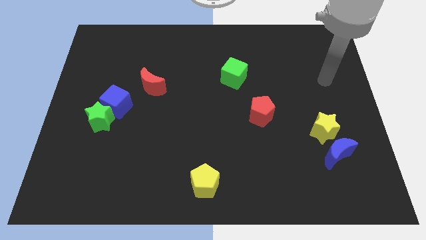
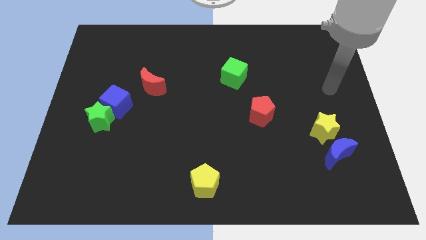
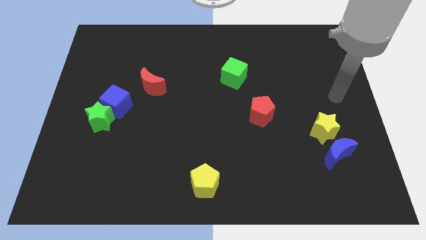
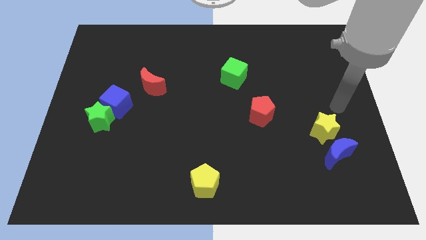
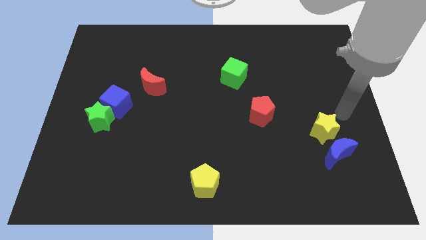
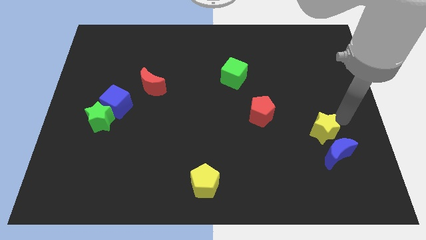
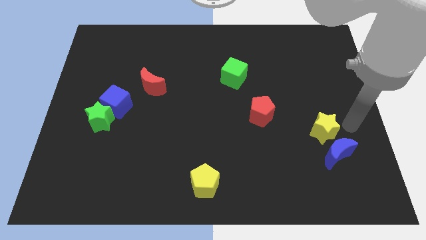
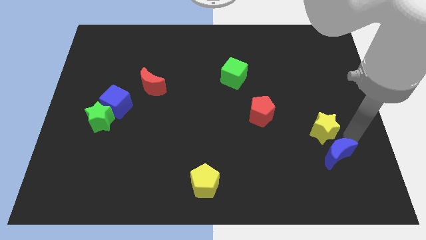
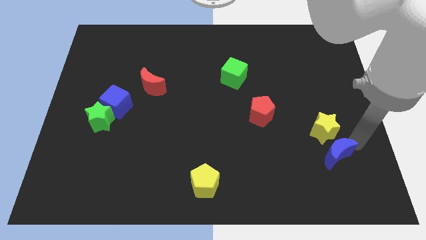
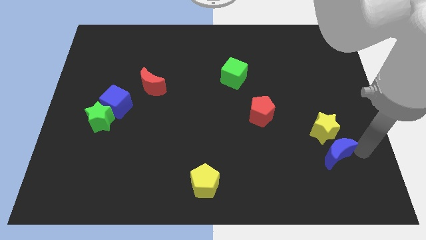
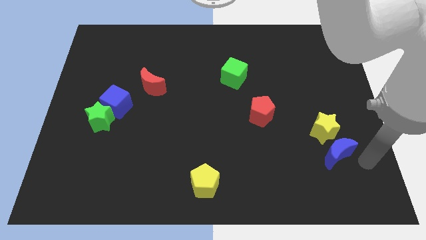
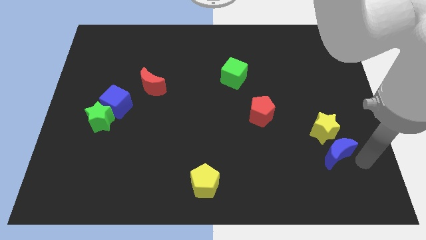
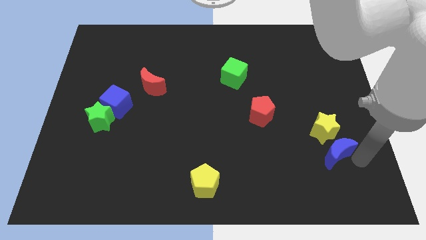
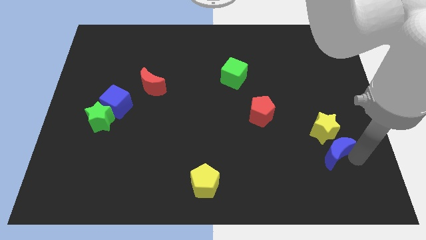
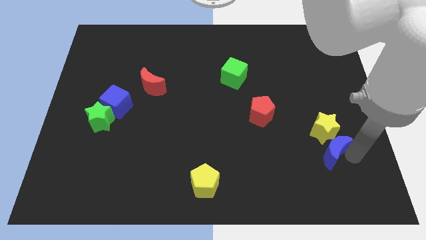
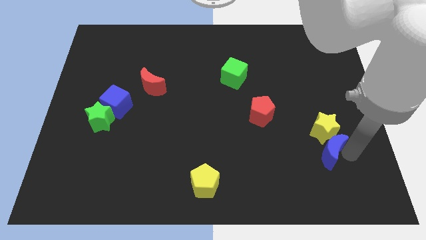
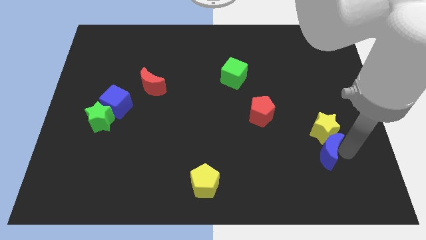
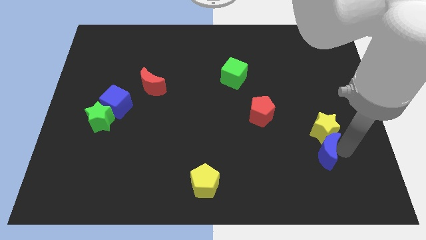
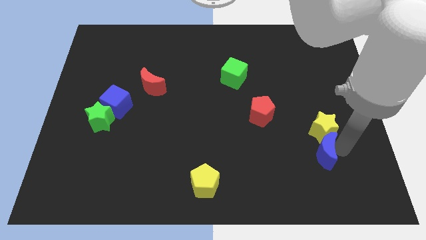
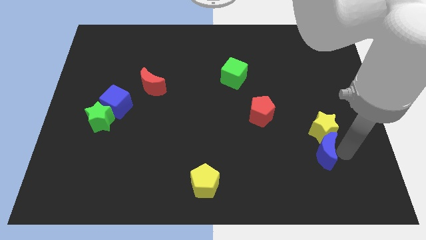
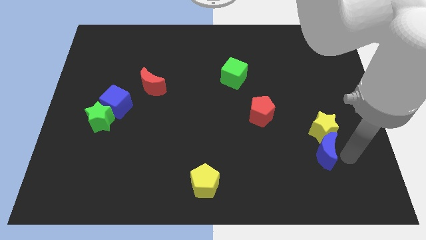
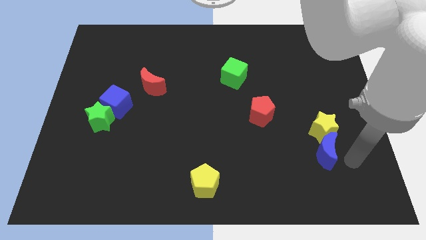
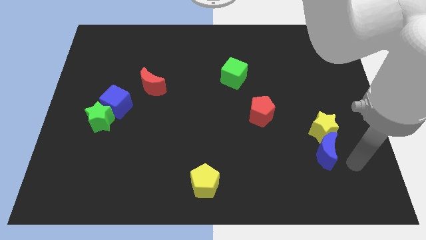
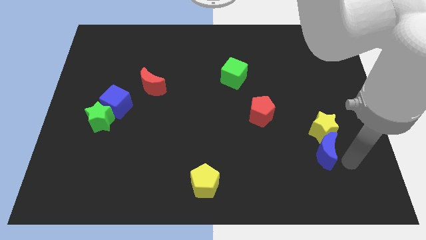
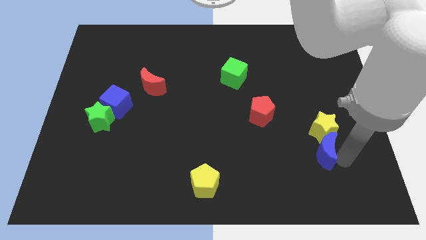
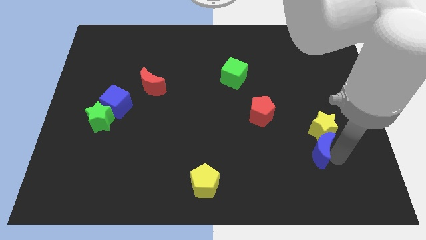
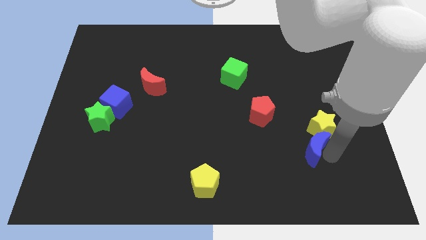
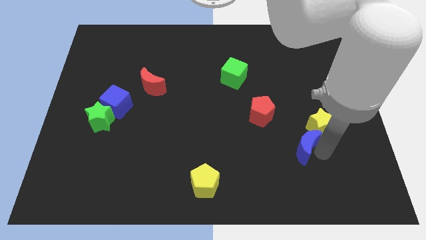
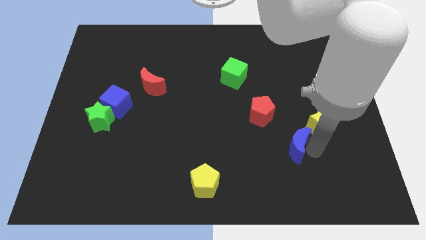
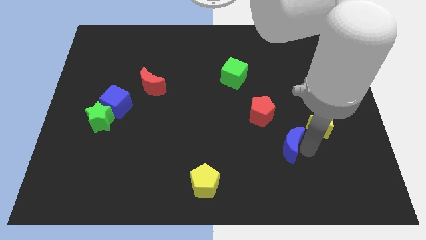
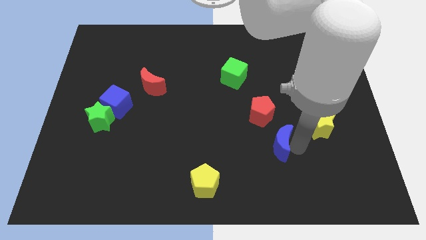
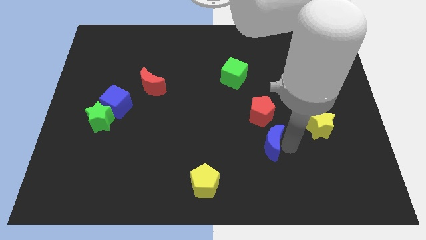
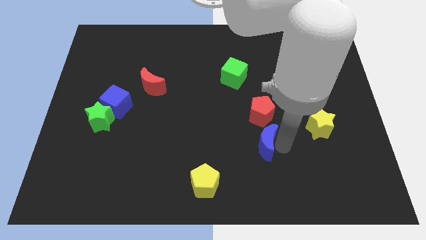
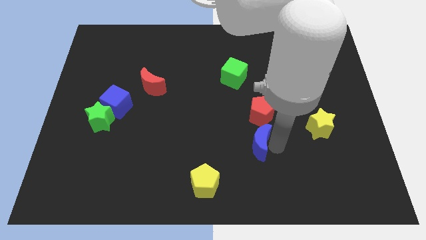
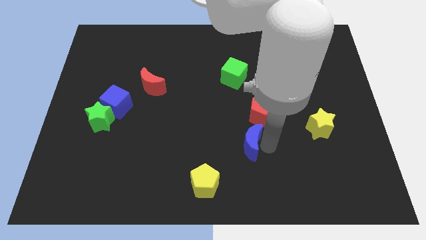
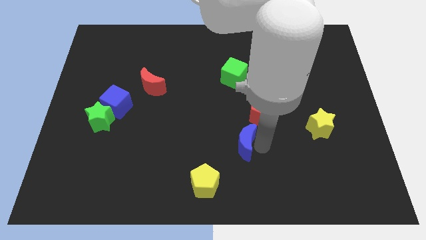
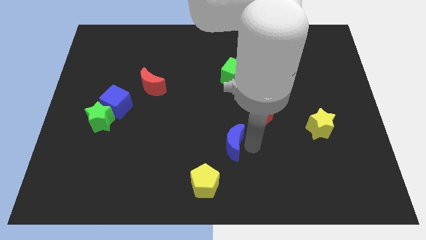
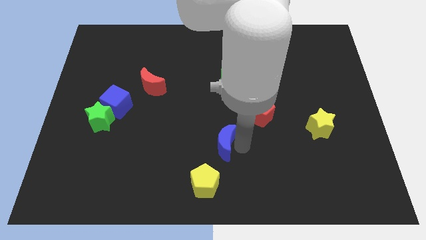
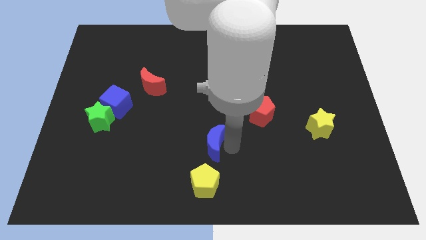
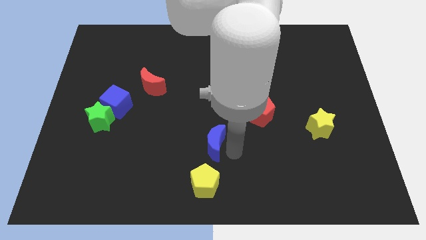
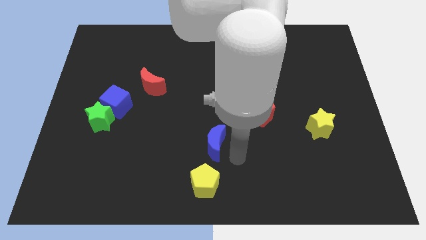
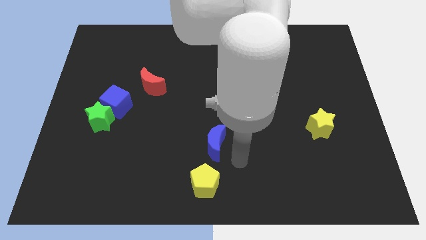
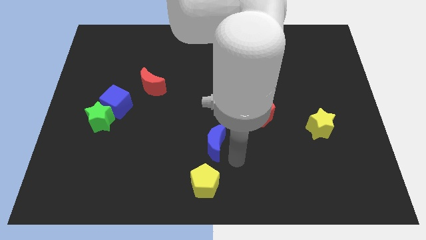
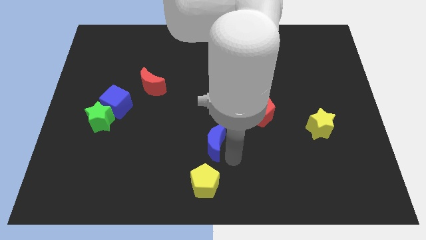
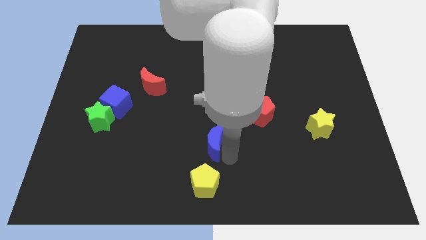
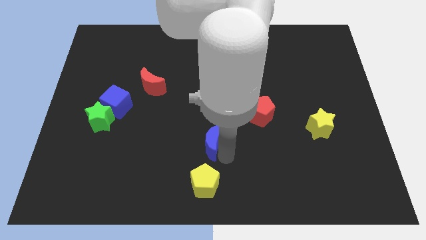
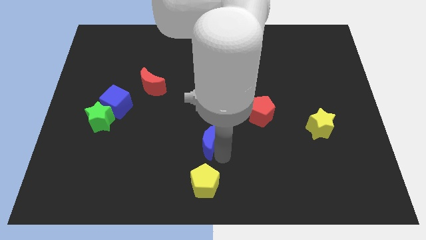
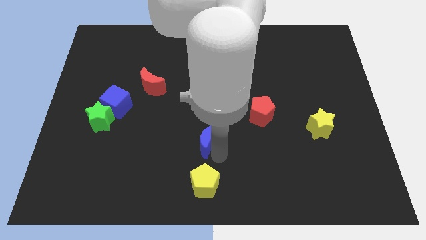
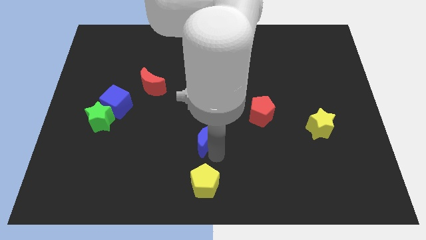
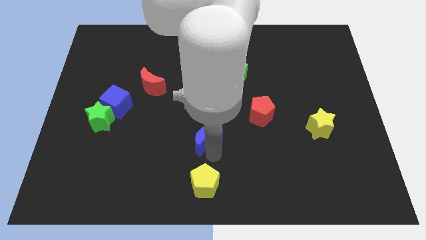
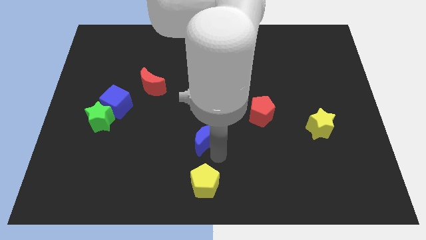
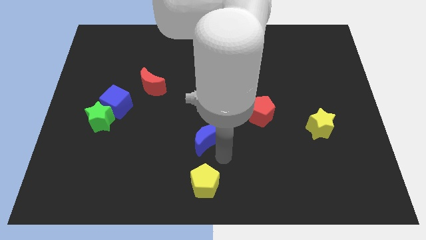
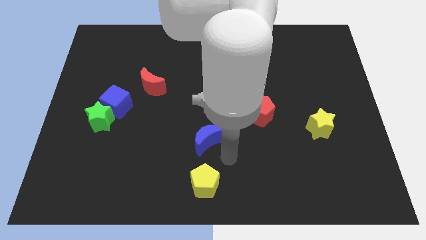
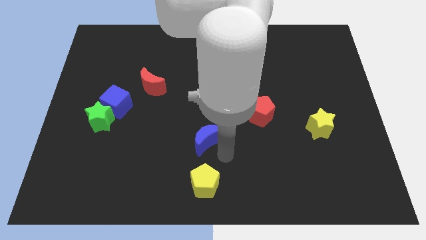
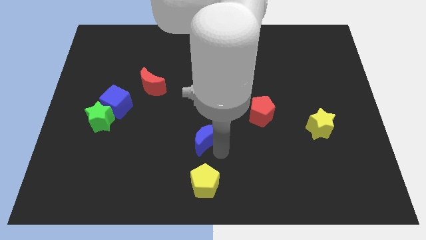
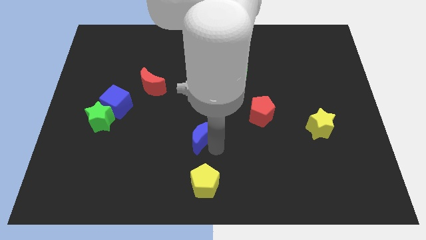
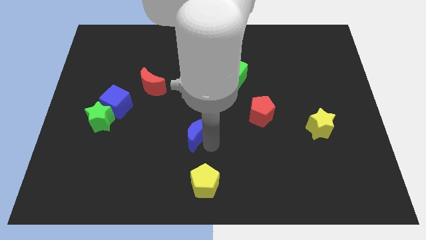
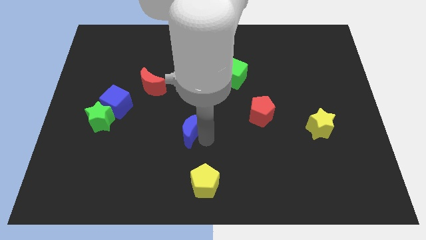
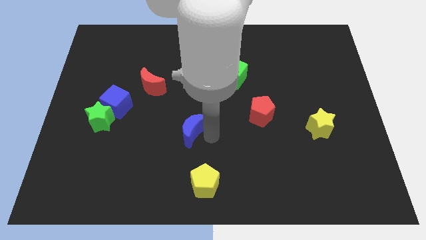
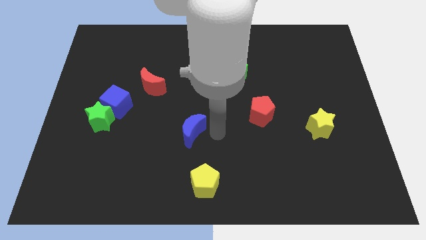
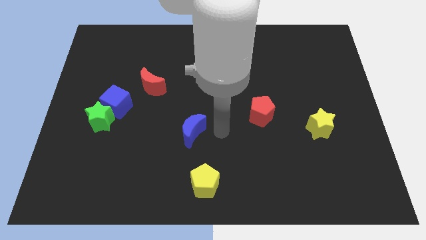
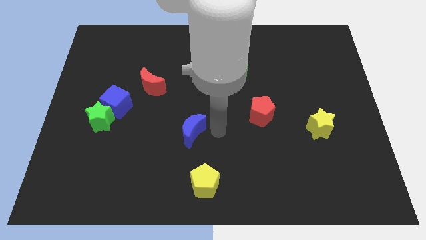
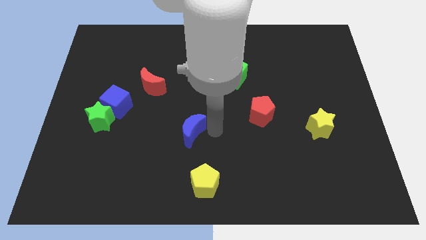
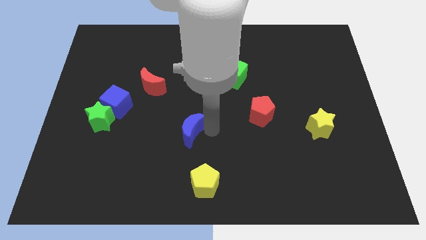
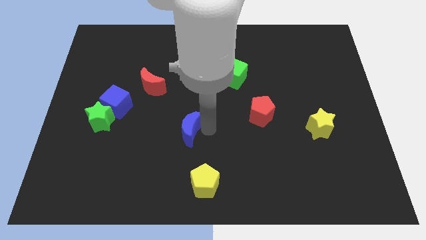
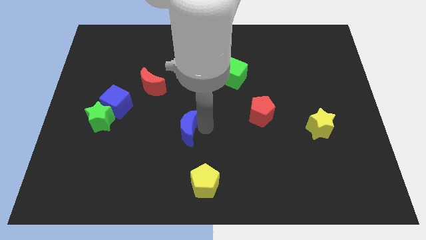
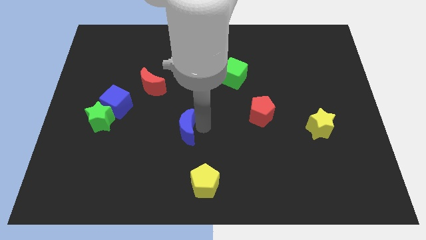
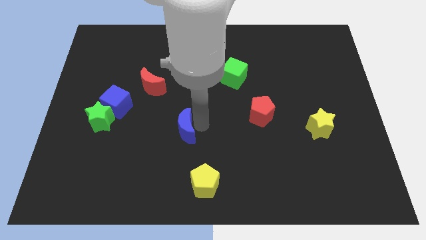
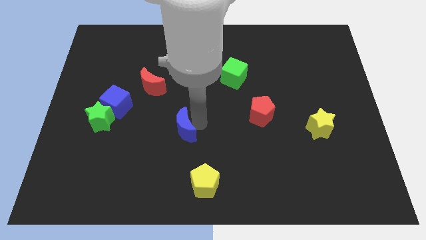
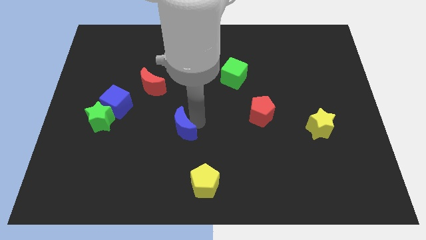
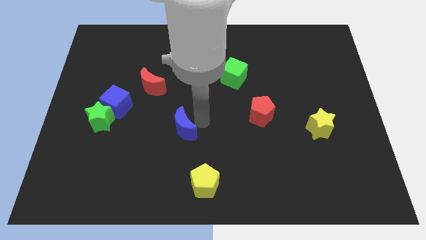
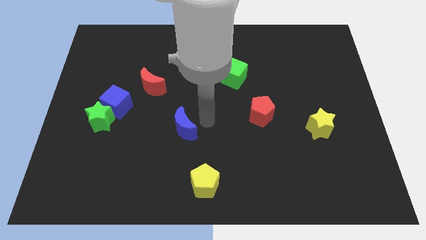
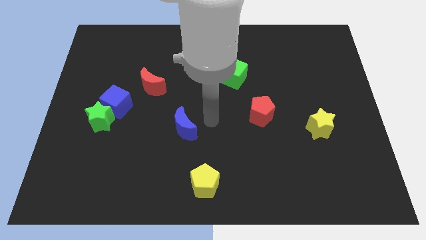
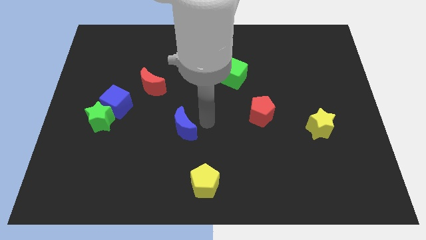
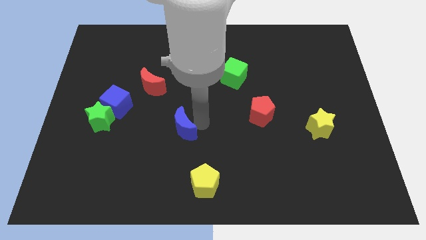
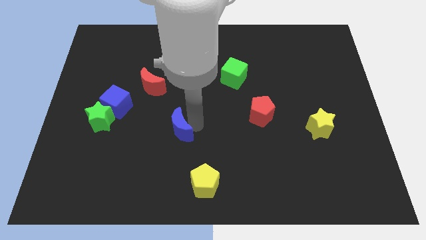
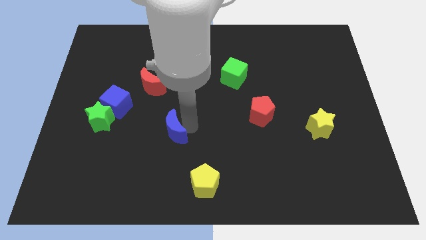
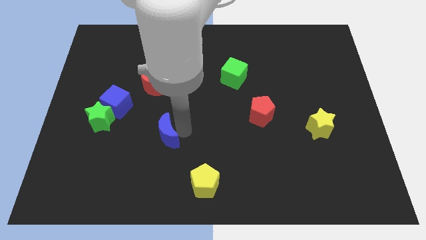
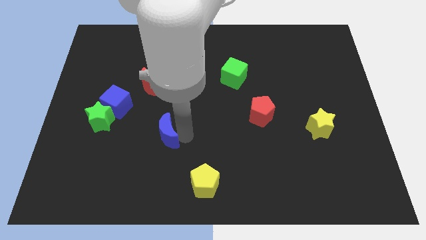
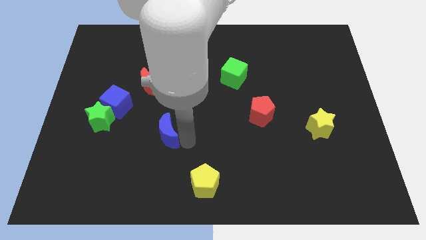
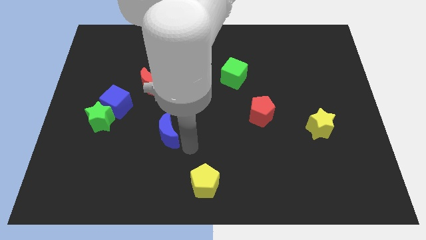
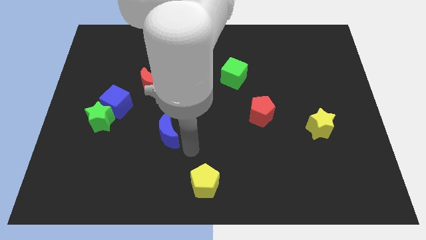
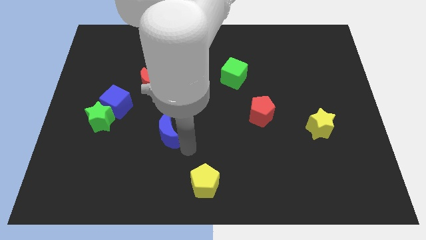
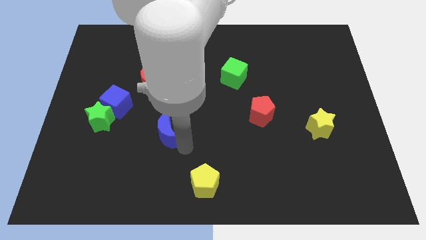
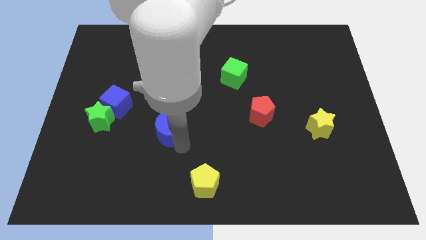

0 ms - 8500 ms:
slide the blue moon to the bottom side of the red moon
